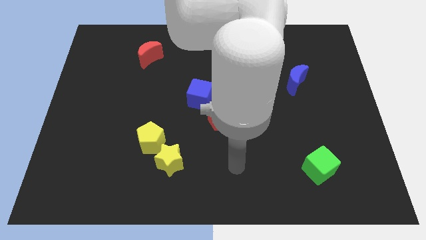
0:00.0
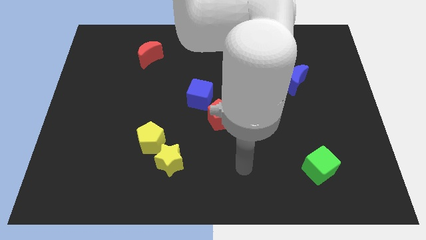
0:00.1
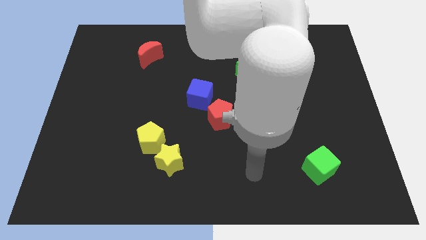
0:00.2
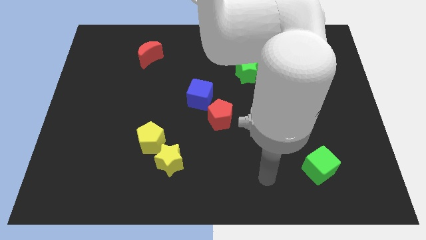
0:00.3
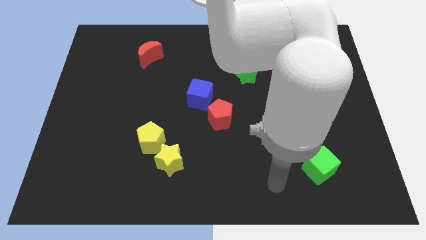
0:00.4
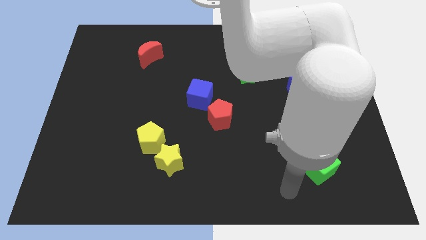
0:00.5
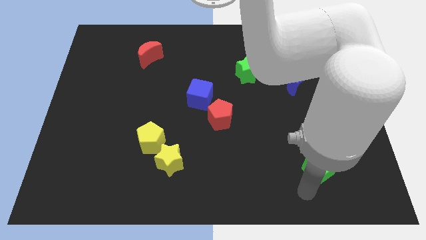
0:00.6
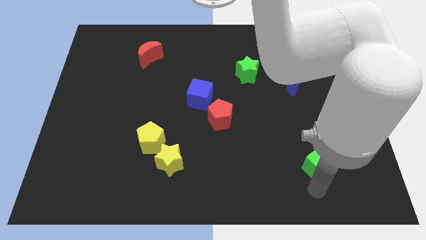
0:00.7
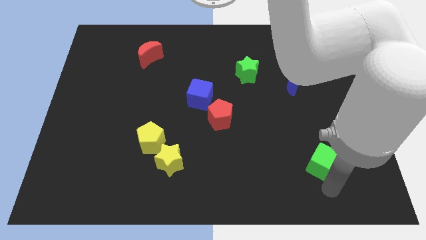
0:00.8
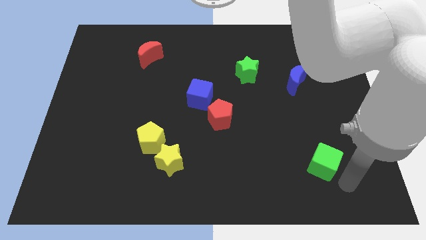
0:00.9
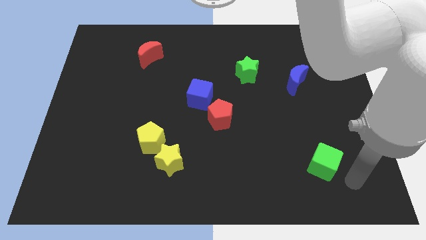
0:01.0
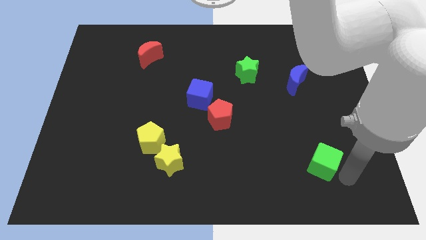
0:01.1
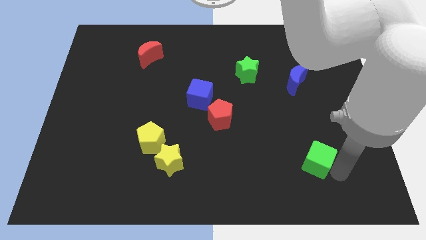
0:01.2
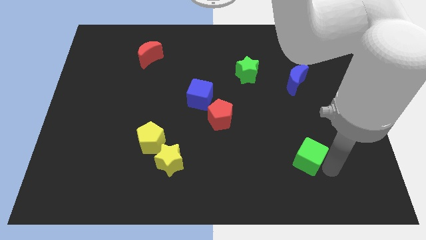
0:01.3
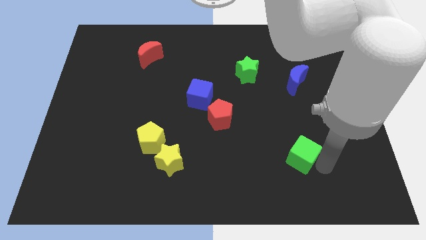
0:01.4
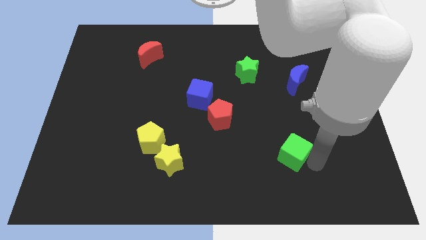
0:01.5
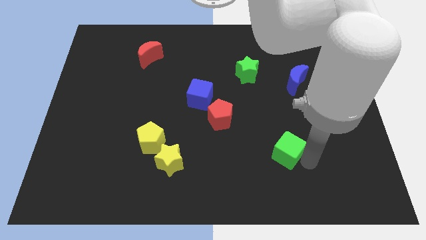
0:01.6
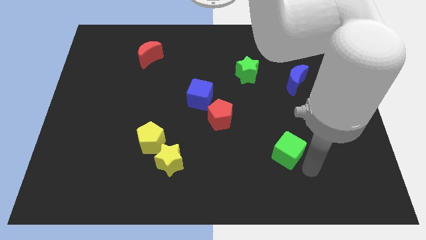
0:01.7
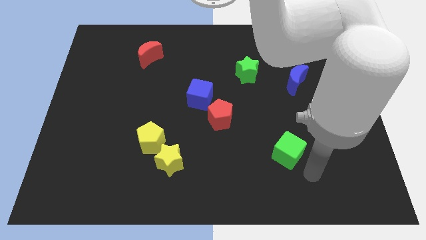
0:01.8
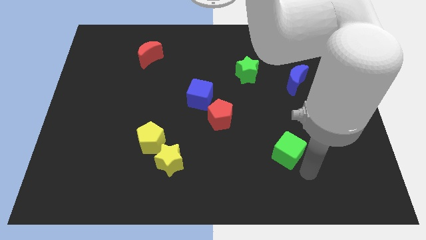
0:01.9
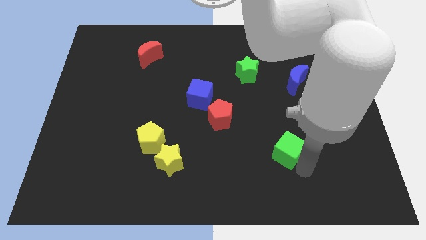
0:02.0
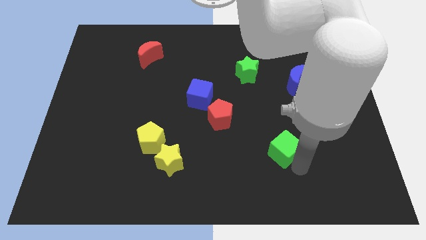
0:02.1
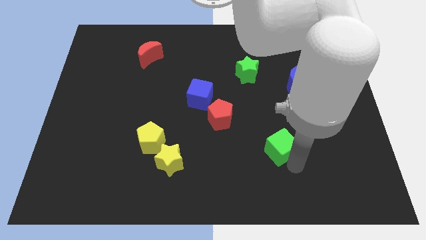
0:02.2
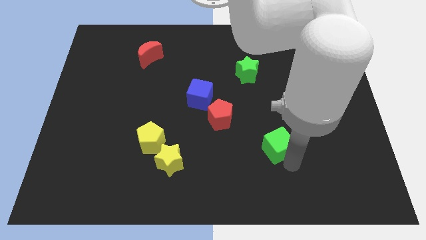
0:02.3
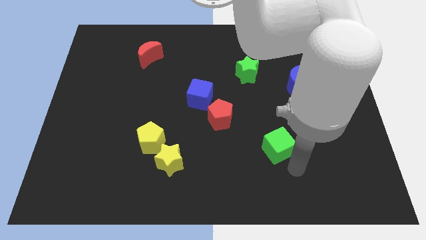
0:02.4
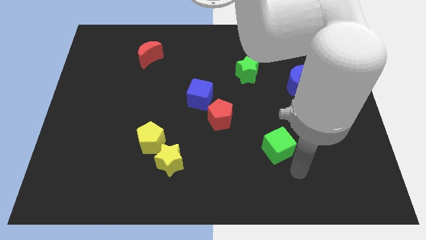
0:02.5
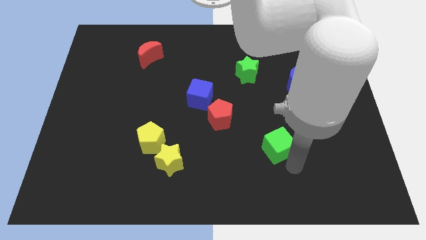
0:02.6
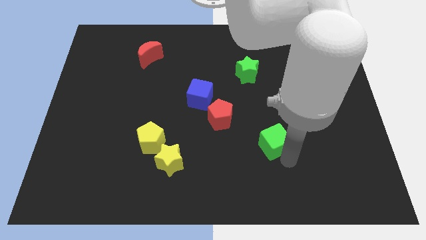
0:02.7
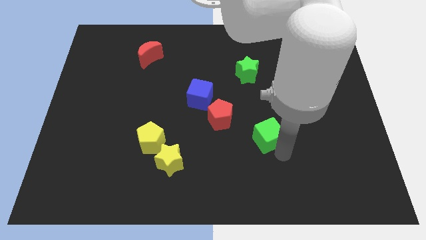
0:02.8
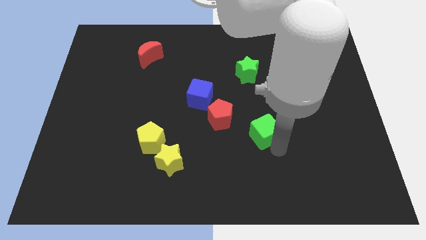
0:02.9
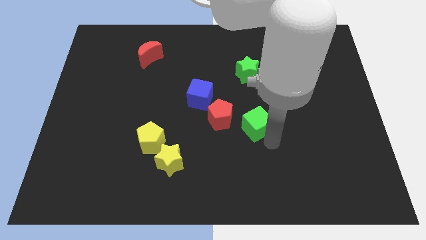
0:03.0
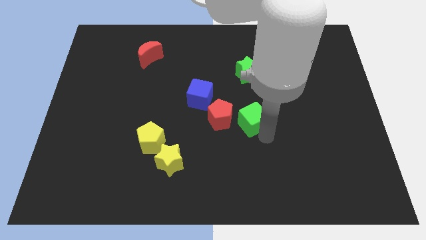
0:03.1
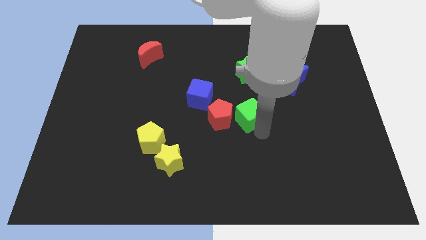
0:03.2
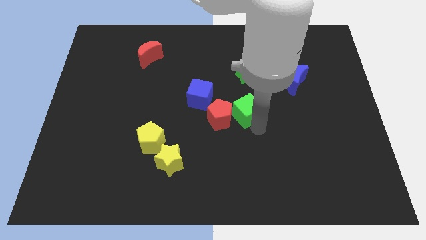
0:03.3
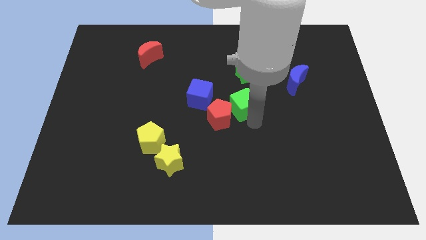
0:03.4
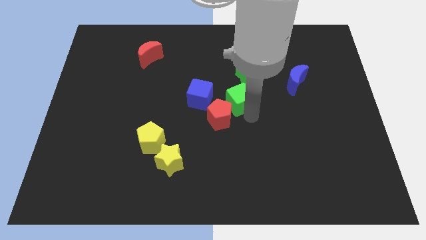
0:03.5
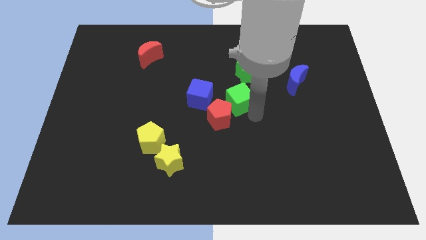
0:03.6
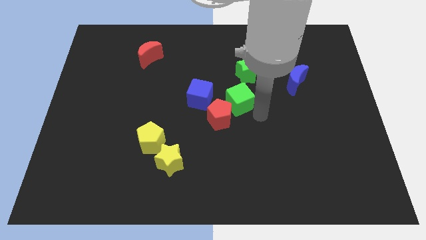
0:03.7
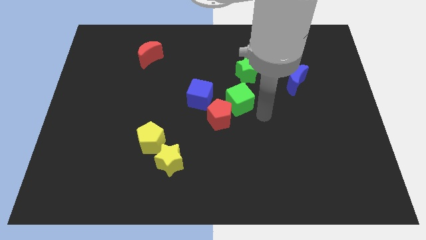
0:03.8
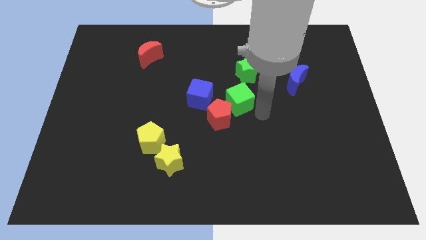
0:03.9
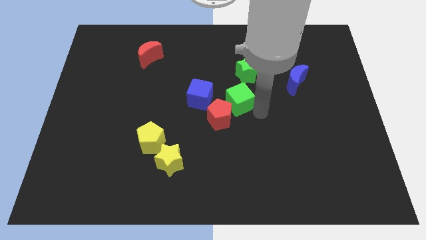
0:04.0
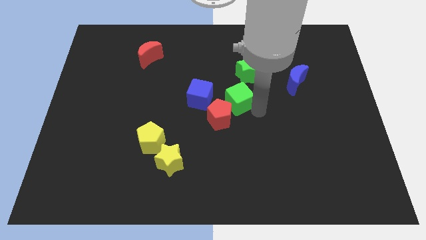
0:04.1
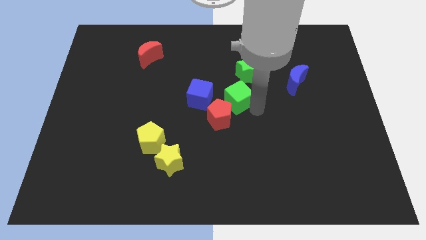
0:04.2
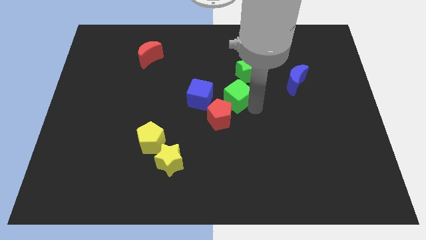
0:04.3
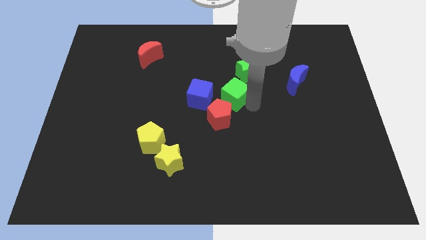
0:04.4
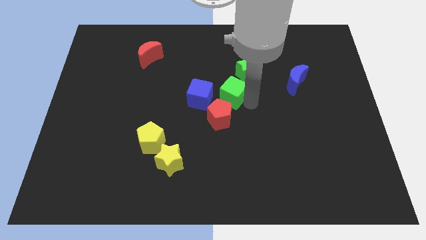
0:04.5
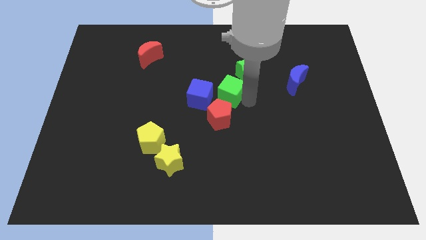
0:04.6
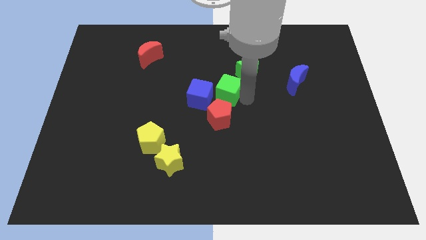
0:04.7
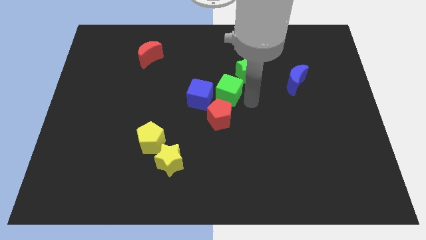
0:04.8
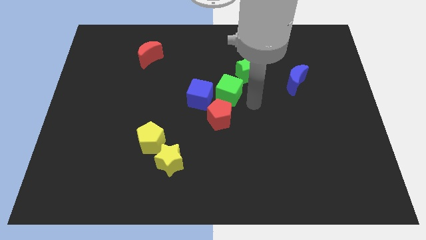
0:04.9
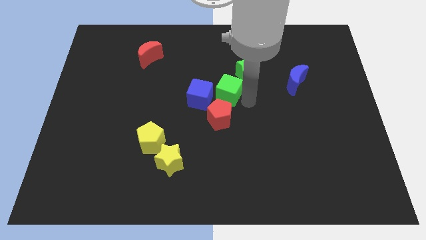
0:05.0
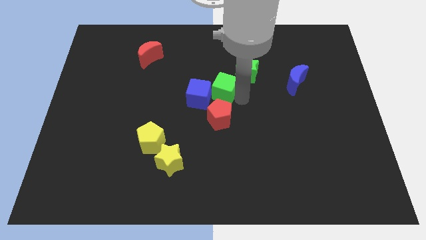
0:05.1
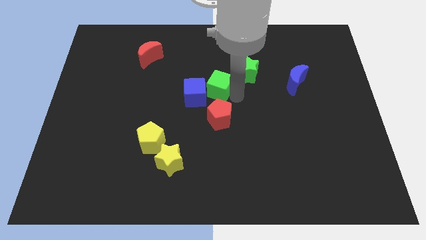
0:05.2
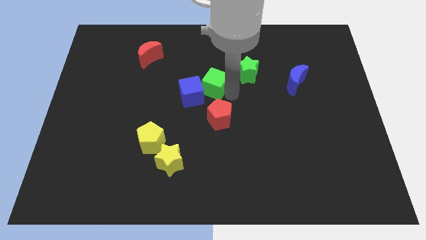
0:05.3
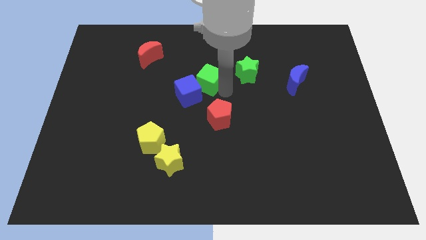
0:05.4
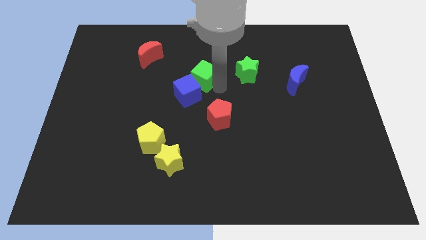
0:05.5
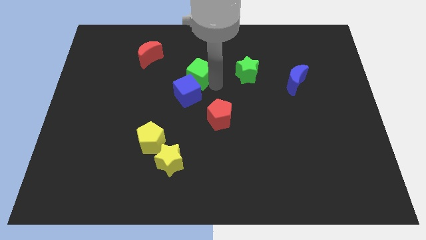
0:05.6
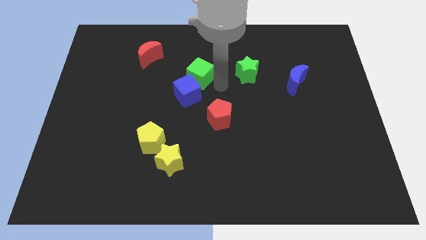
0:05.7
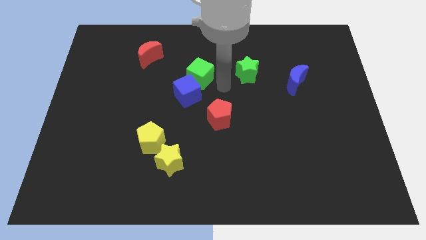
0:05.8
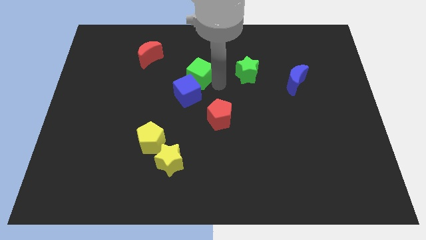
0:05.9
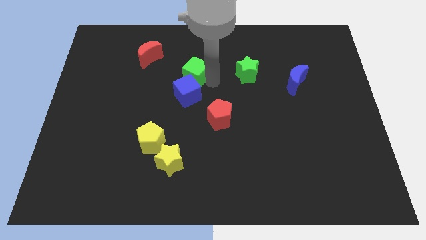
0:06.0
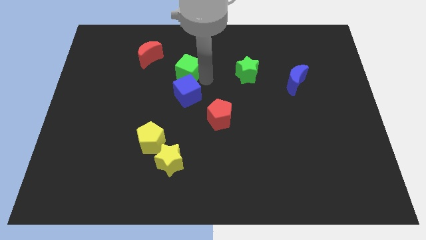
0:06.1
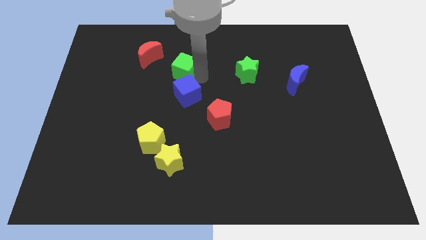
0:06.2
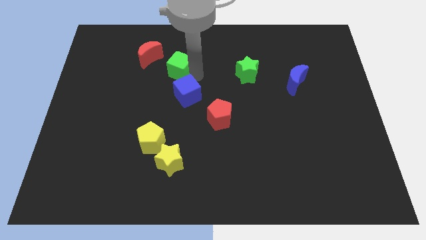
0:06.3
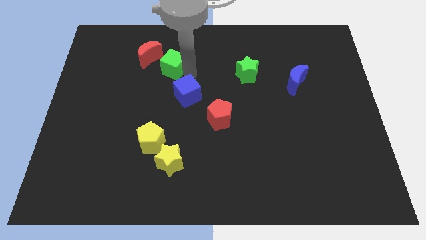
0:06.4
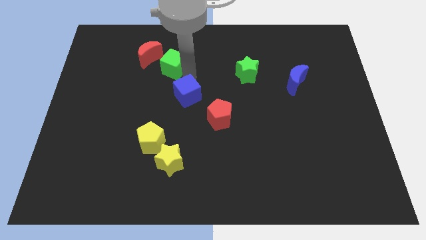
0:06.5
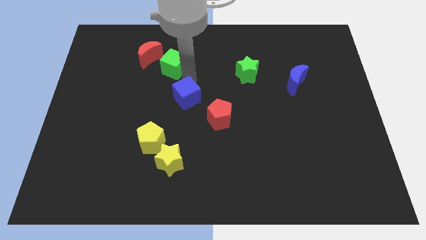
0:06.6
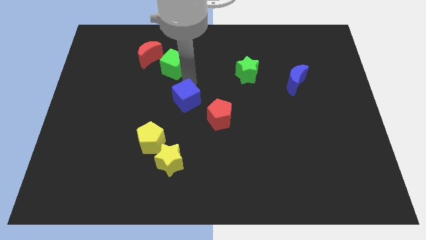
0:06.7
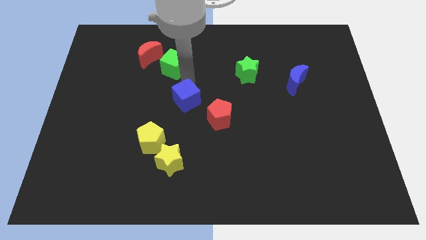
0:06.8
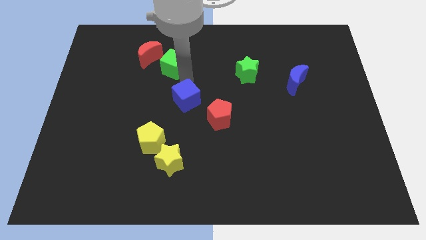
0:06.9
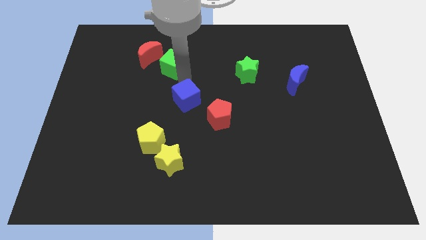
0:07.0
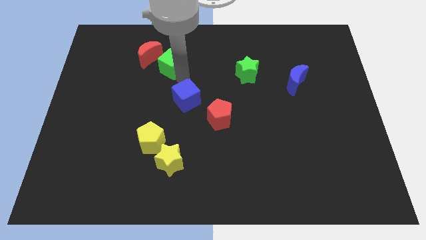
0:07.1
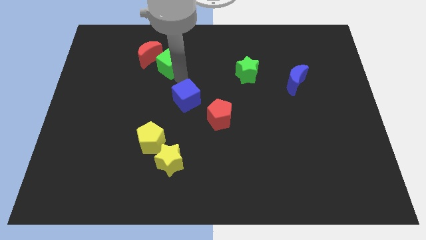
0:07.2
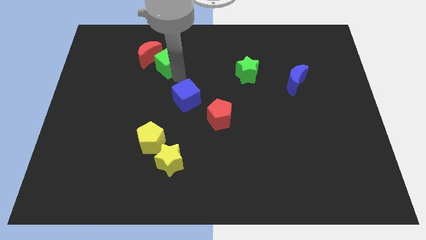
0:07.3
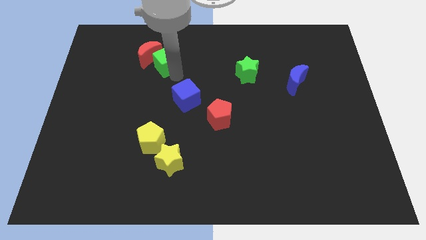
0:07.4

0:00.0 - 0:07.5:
put the green cube next to the red moon
